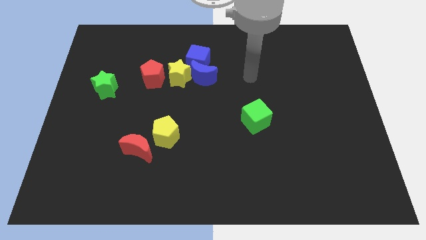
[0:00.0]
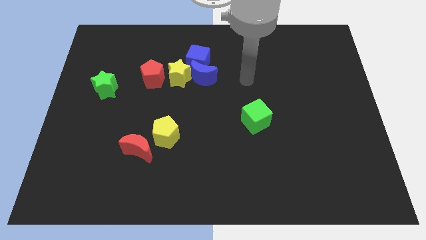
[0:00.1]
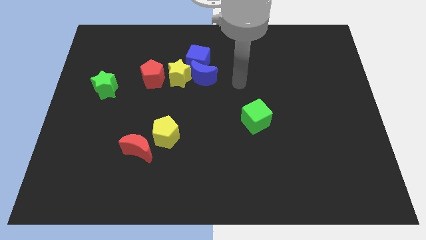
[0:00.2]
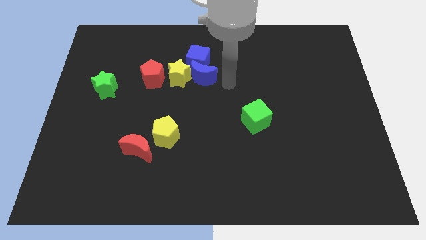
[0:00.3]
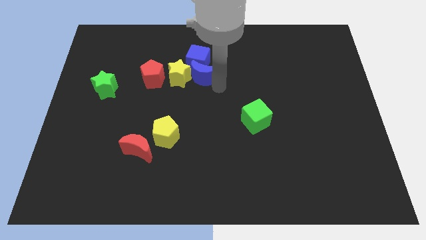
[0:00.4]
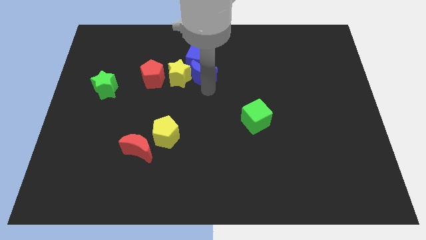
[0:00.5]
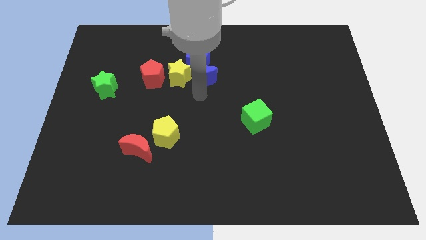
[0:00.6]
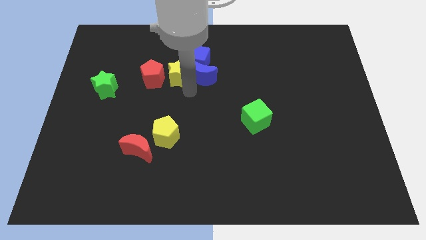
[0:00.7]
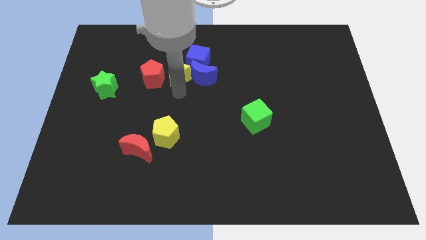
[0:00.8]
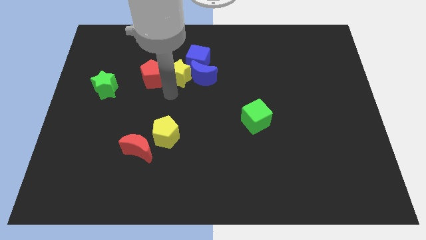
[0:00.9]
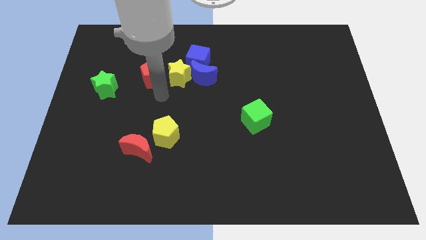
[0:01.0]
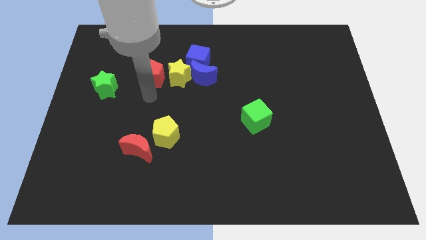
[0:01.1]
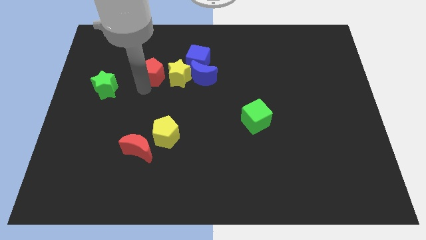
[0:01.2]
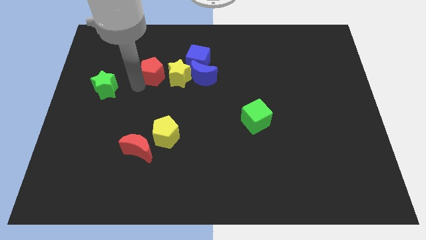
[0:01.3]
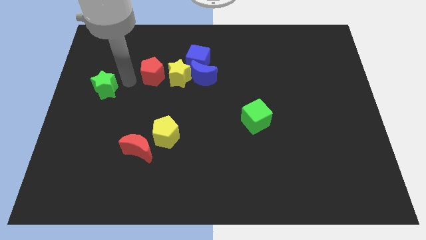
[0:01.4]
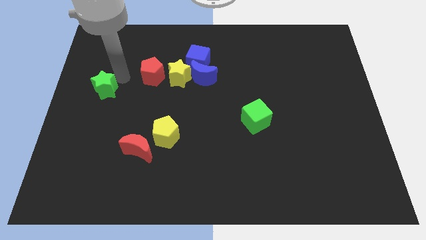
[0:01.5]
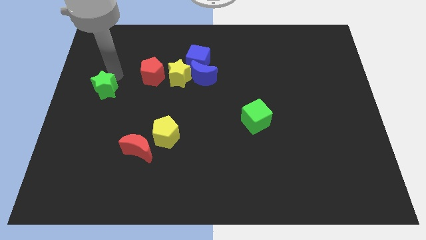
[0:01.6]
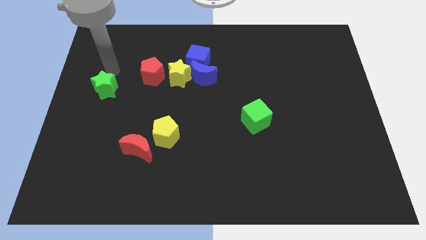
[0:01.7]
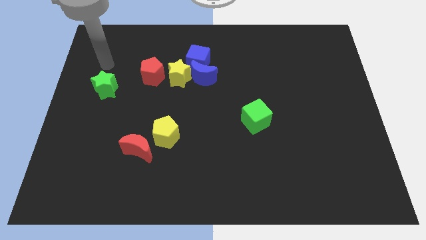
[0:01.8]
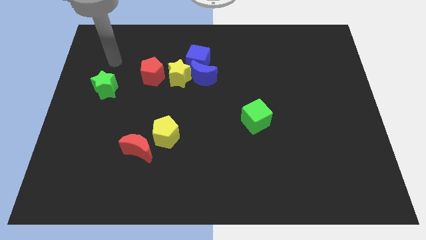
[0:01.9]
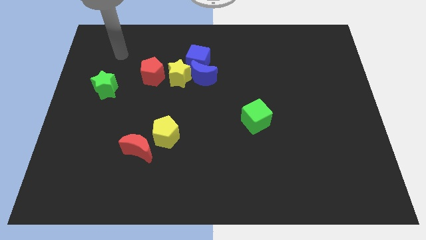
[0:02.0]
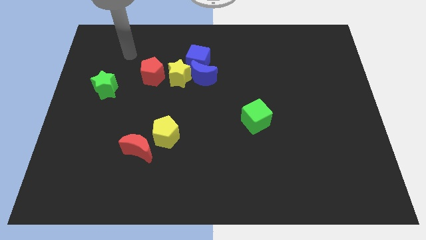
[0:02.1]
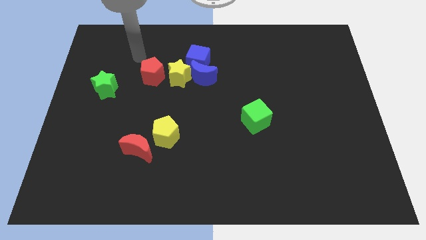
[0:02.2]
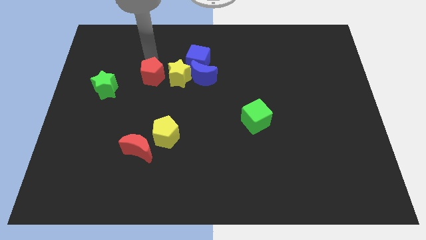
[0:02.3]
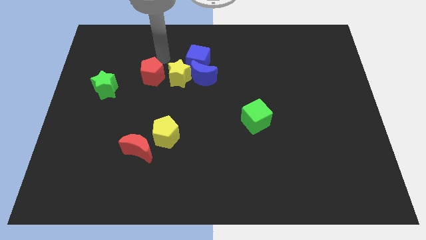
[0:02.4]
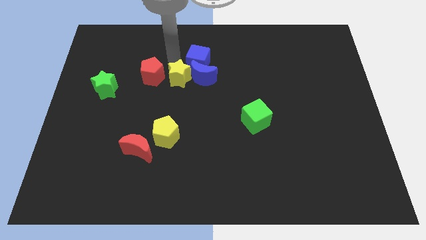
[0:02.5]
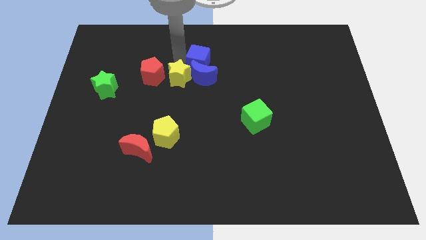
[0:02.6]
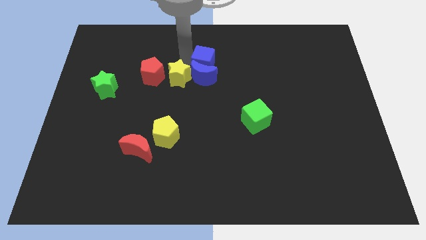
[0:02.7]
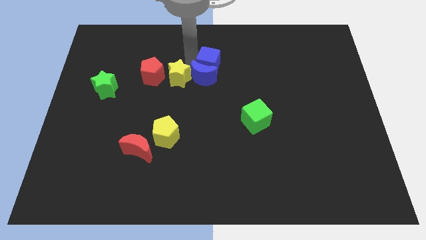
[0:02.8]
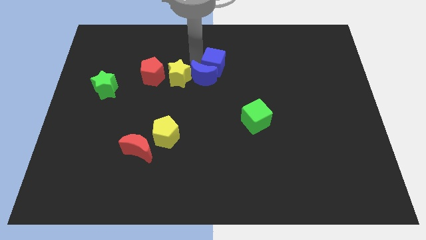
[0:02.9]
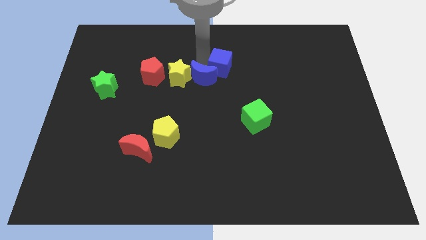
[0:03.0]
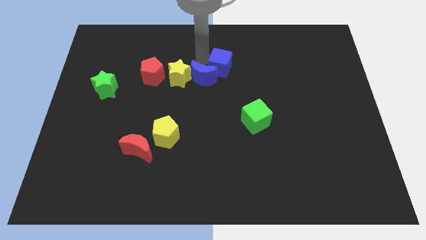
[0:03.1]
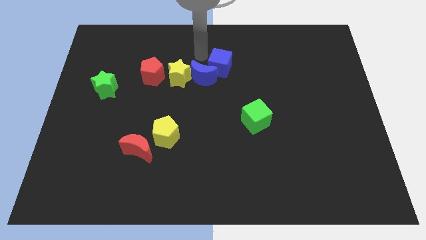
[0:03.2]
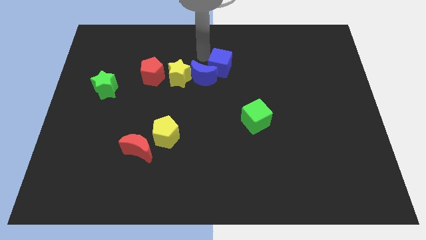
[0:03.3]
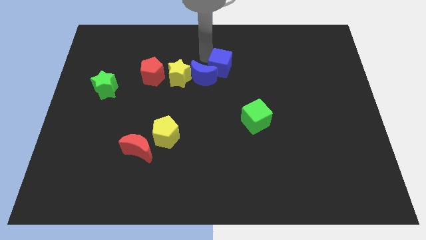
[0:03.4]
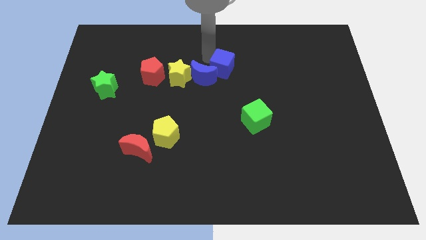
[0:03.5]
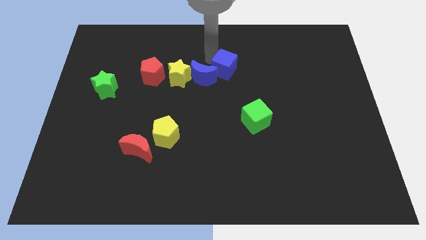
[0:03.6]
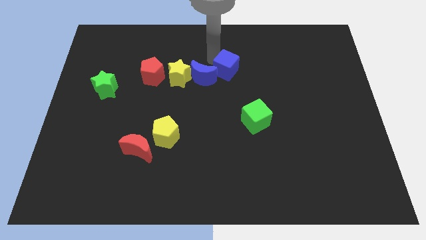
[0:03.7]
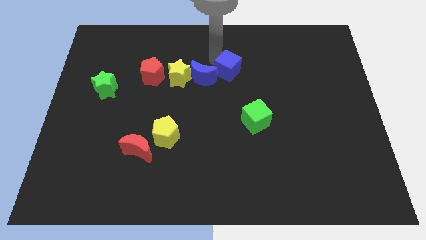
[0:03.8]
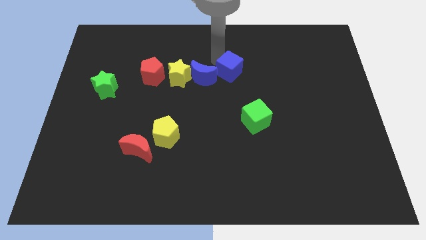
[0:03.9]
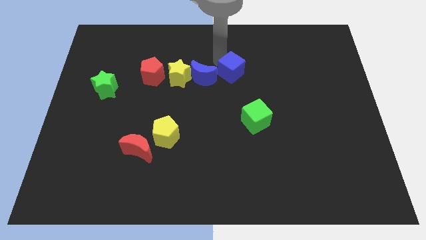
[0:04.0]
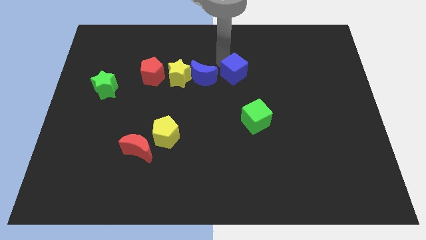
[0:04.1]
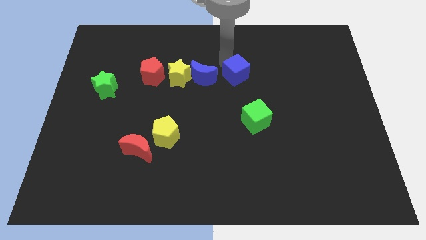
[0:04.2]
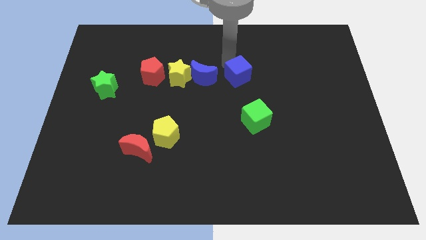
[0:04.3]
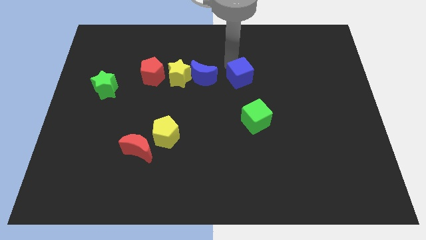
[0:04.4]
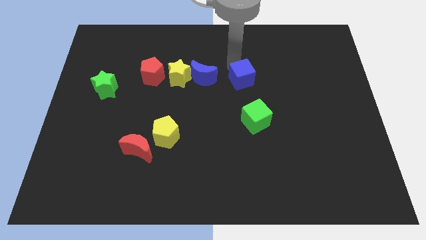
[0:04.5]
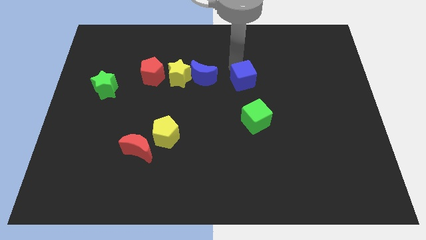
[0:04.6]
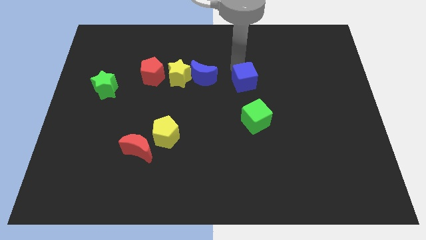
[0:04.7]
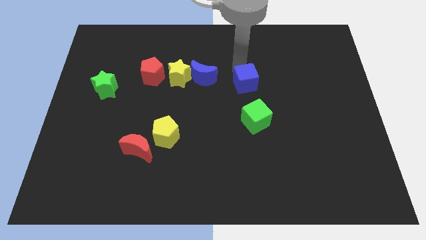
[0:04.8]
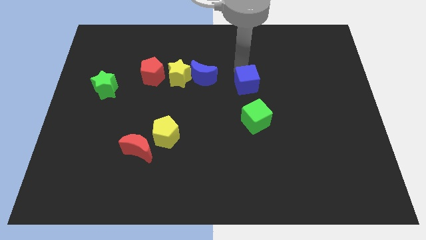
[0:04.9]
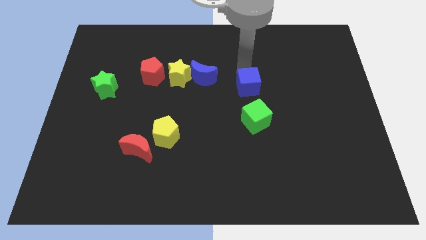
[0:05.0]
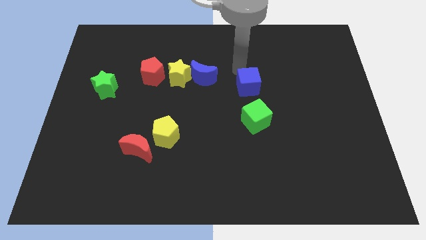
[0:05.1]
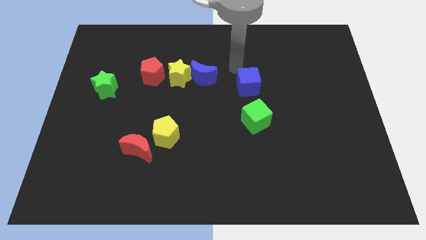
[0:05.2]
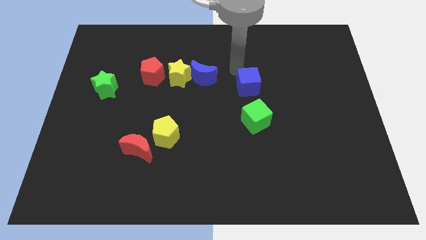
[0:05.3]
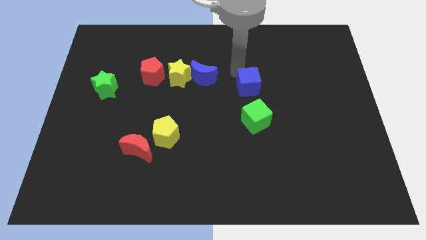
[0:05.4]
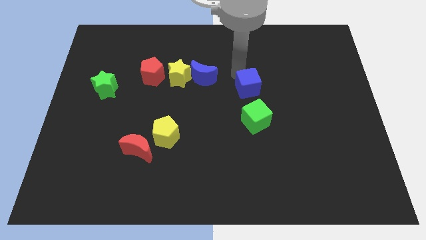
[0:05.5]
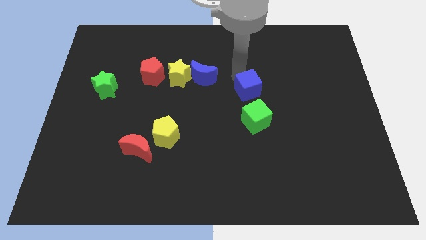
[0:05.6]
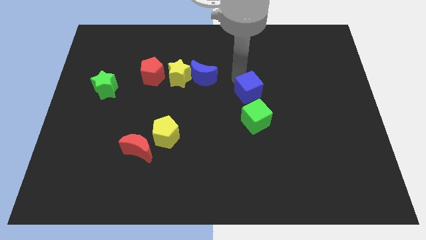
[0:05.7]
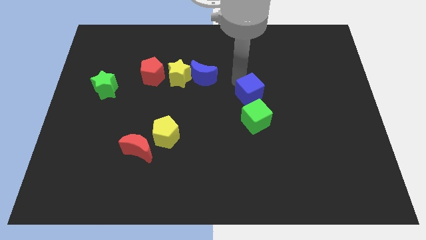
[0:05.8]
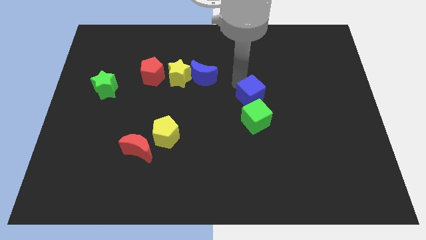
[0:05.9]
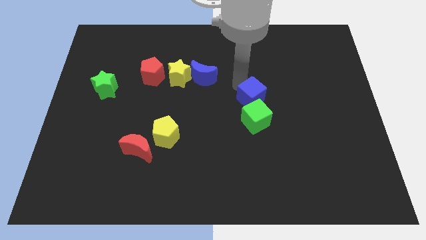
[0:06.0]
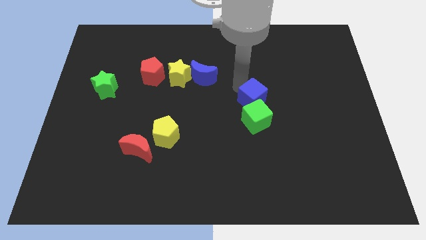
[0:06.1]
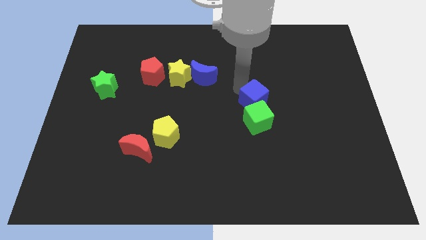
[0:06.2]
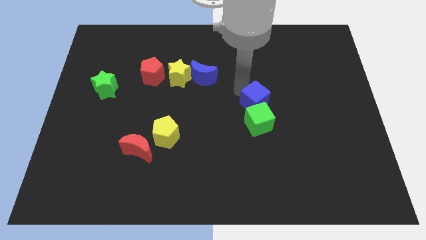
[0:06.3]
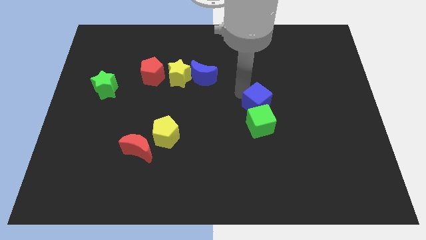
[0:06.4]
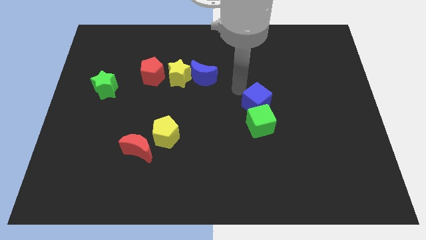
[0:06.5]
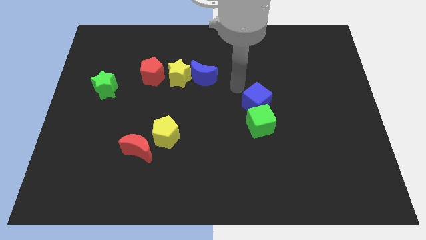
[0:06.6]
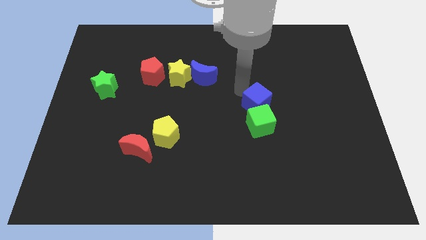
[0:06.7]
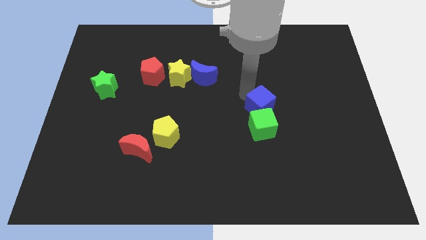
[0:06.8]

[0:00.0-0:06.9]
slide the blue cube down and then right

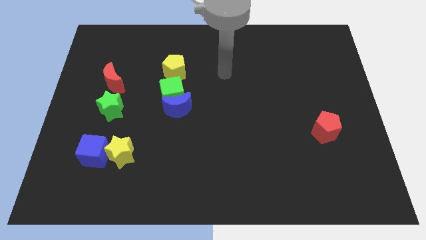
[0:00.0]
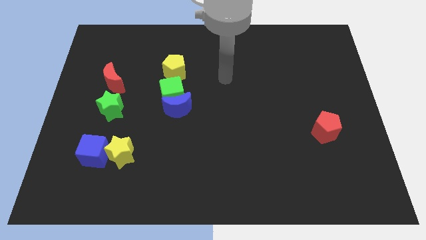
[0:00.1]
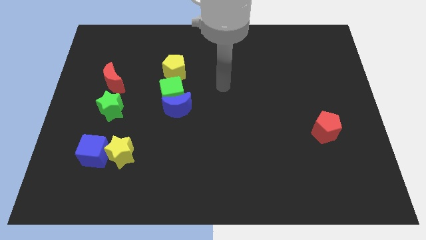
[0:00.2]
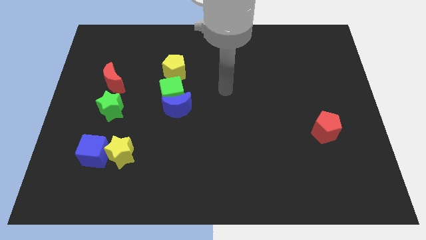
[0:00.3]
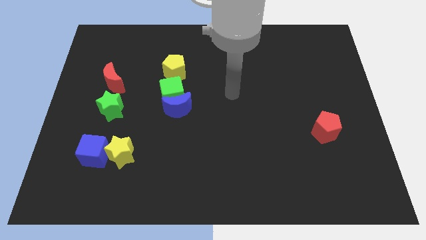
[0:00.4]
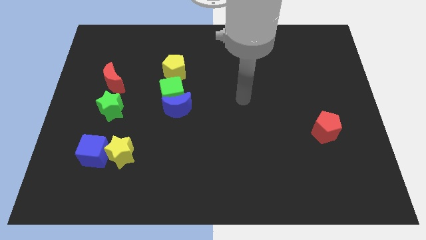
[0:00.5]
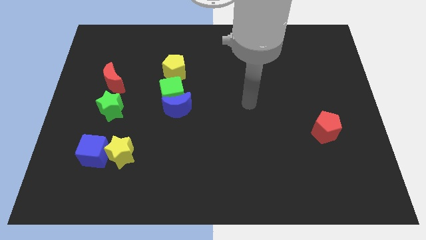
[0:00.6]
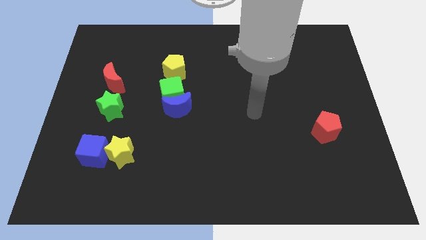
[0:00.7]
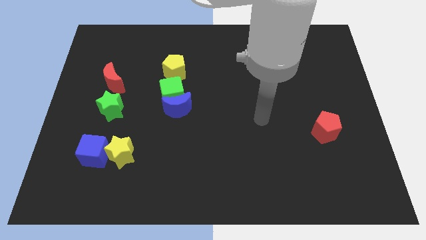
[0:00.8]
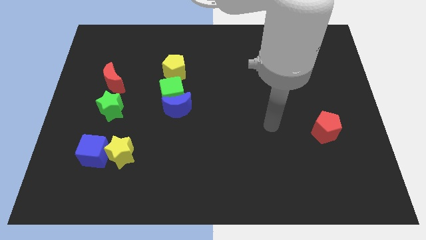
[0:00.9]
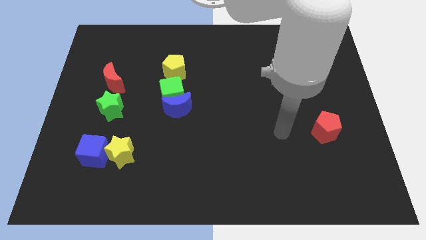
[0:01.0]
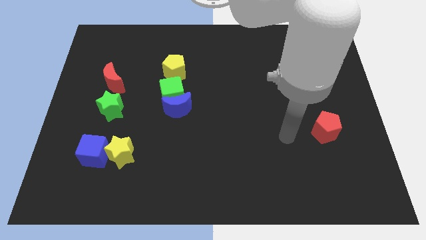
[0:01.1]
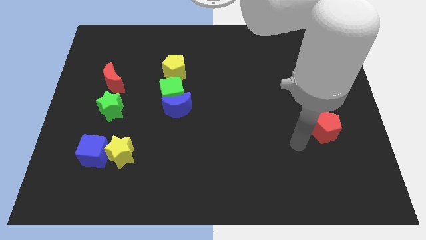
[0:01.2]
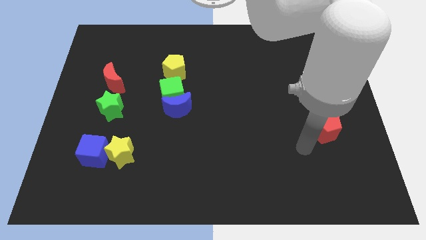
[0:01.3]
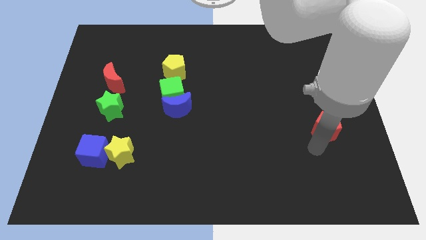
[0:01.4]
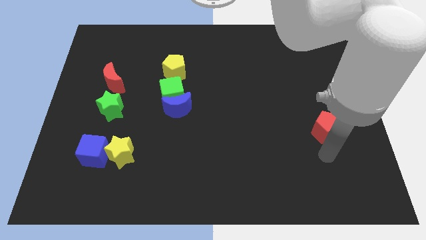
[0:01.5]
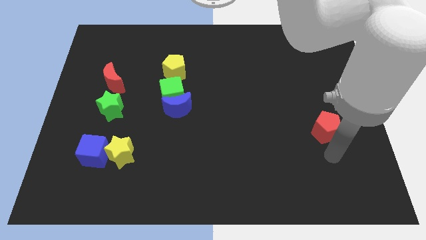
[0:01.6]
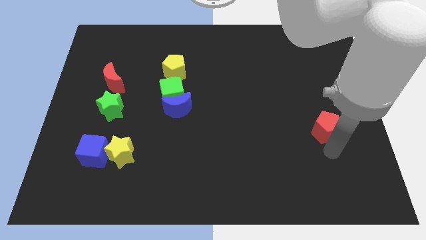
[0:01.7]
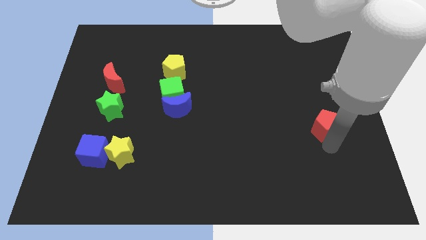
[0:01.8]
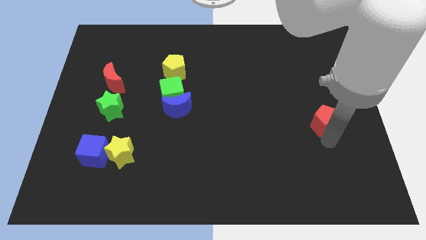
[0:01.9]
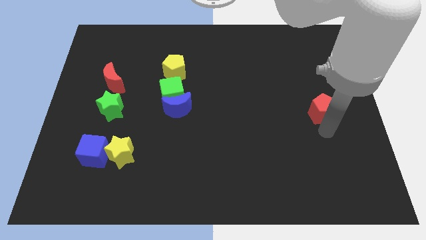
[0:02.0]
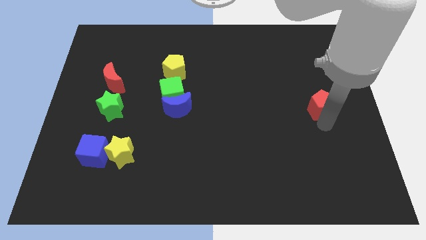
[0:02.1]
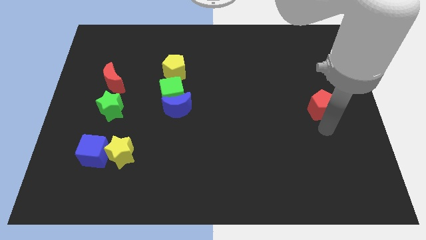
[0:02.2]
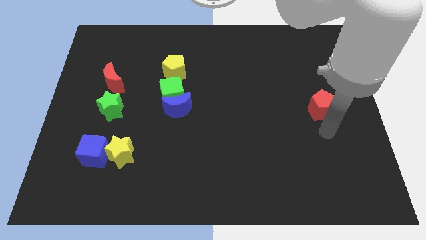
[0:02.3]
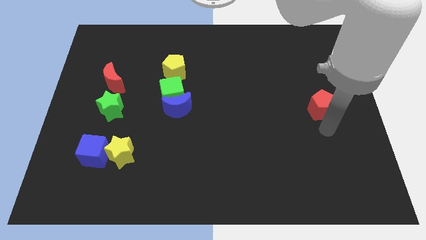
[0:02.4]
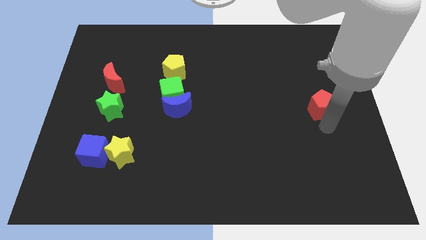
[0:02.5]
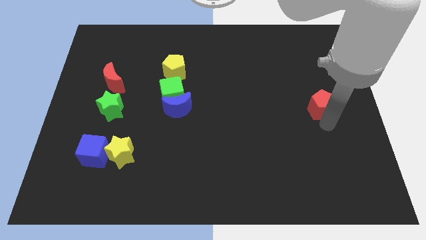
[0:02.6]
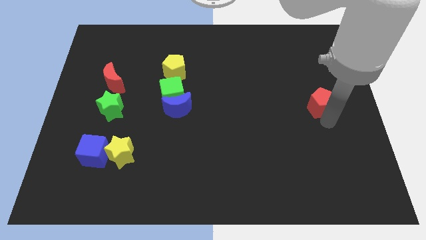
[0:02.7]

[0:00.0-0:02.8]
move the red pentagon a little upwards
